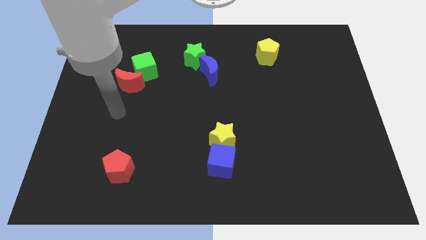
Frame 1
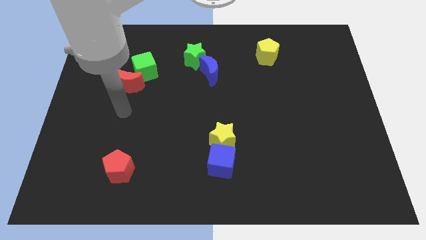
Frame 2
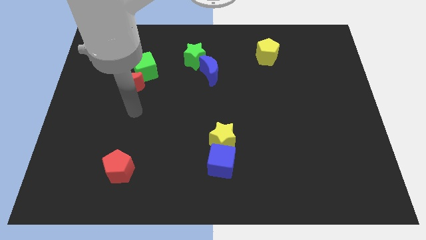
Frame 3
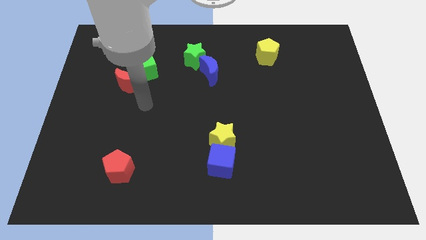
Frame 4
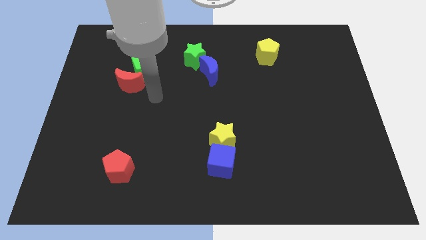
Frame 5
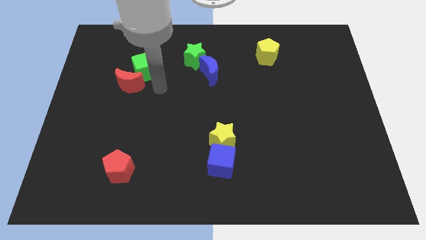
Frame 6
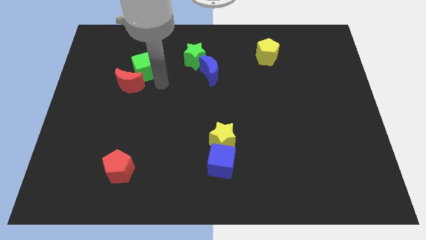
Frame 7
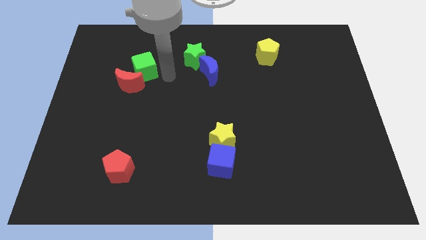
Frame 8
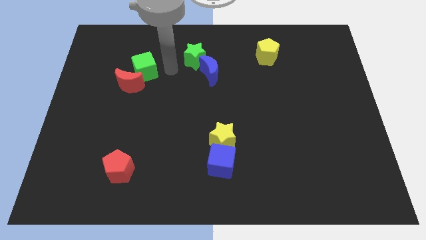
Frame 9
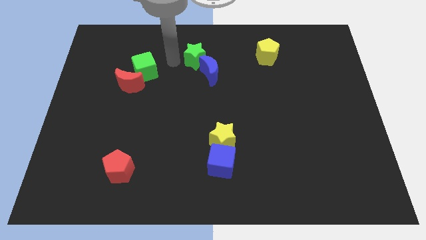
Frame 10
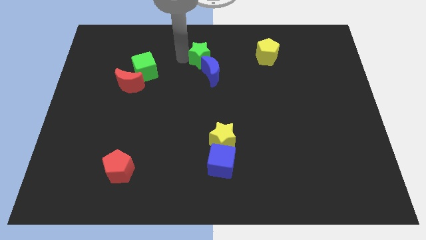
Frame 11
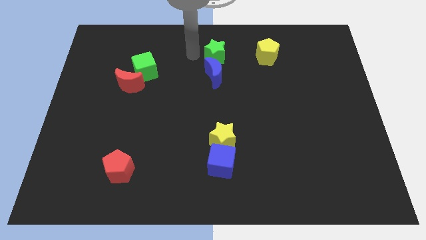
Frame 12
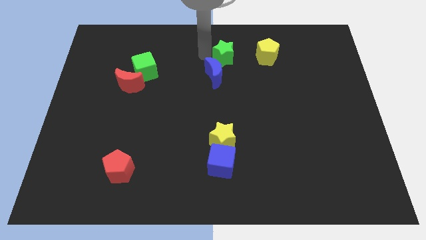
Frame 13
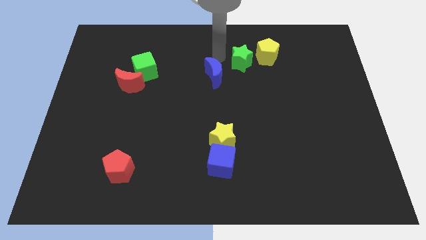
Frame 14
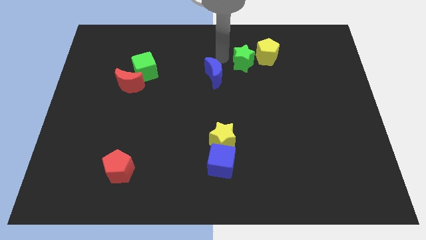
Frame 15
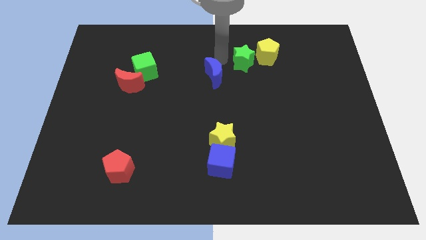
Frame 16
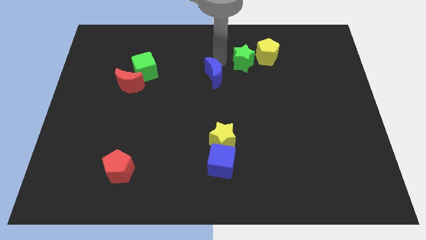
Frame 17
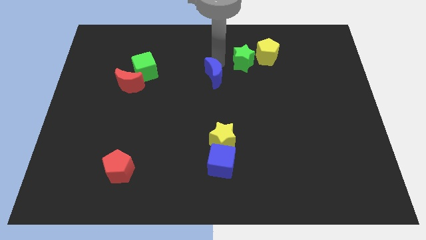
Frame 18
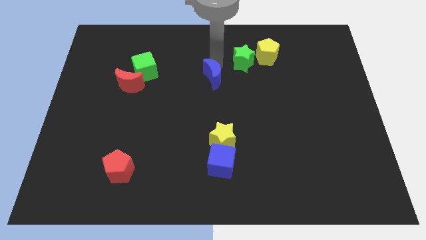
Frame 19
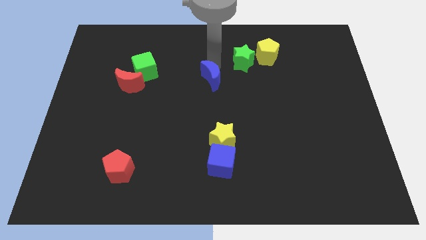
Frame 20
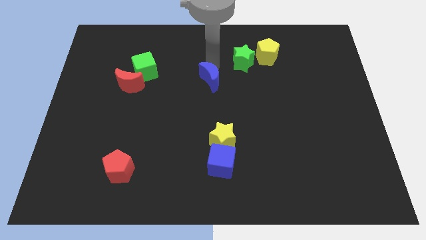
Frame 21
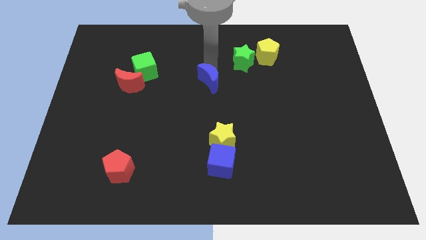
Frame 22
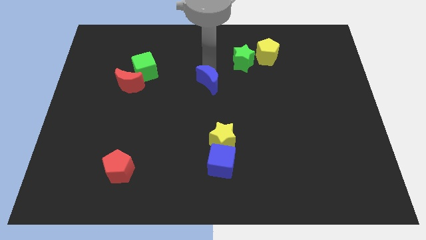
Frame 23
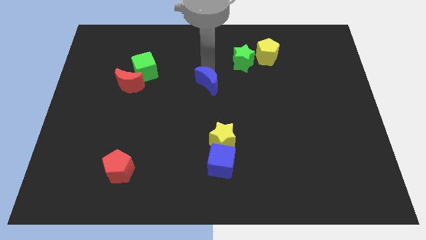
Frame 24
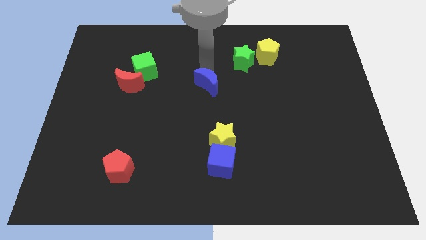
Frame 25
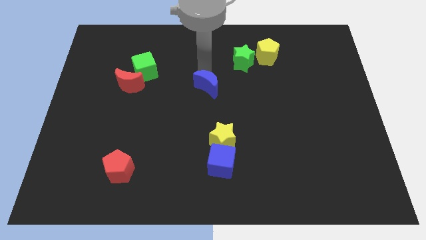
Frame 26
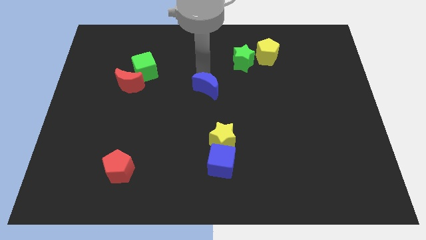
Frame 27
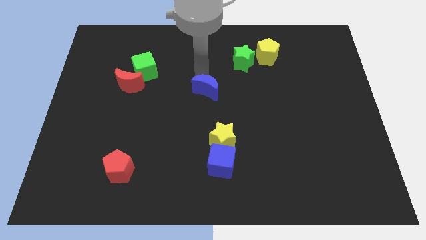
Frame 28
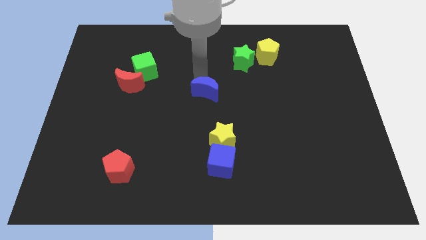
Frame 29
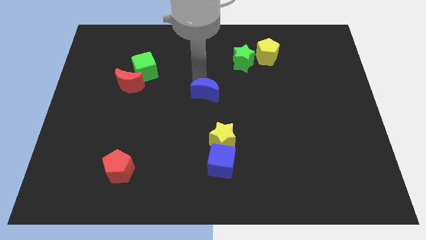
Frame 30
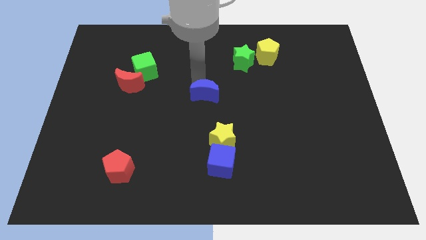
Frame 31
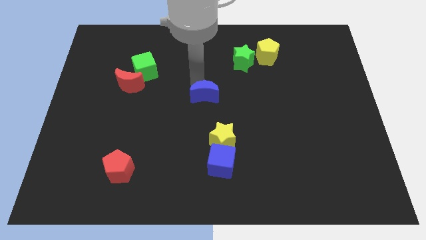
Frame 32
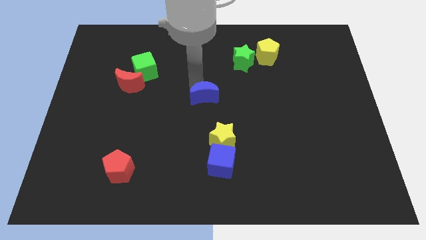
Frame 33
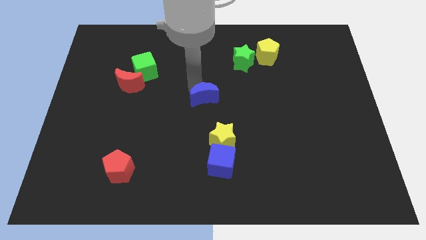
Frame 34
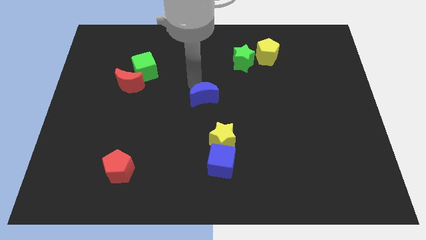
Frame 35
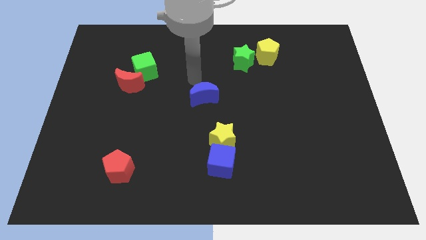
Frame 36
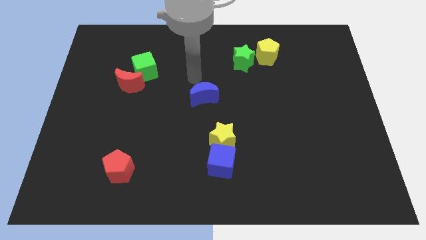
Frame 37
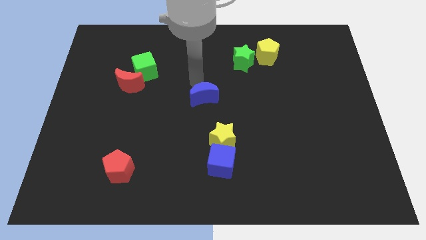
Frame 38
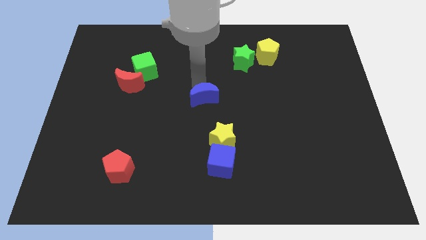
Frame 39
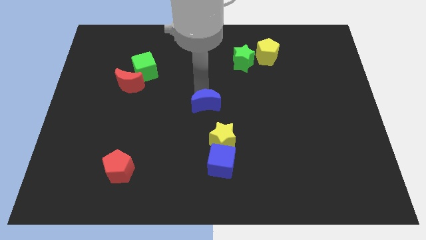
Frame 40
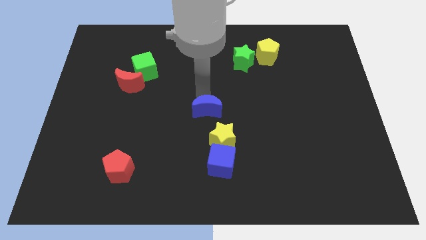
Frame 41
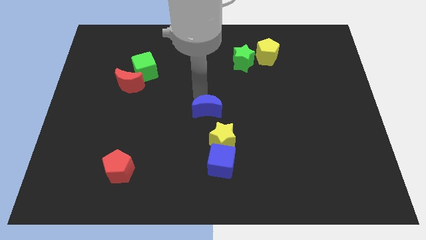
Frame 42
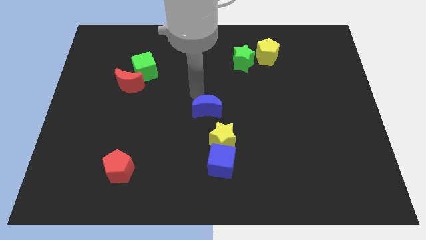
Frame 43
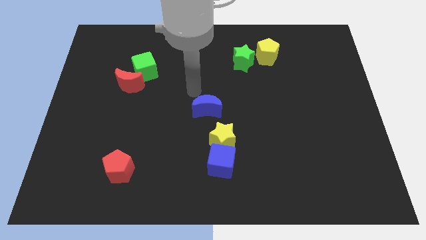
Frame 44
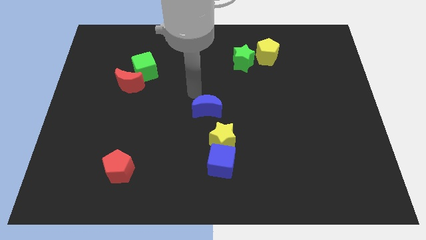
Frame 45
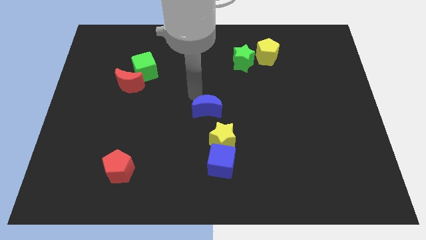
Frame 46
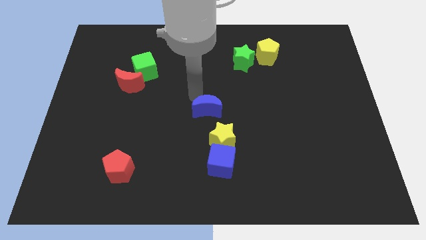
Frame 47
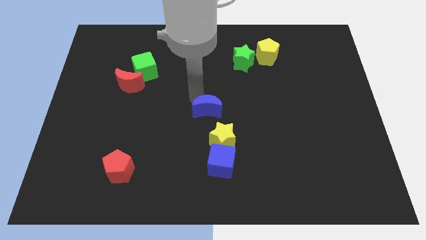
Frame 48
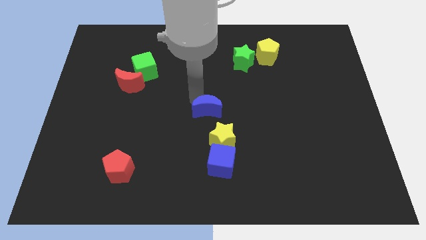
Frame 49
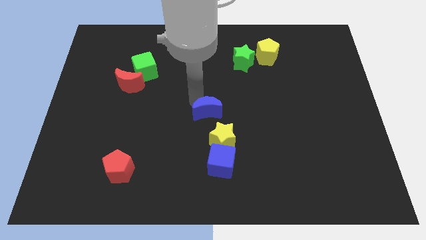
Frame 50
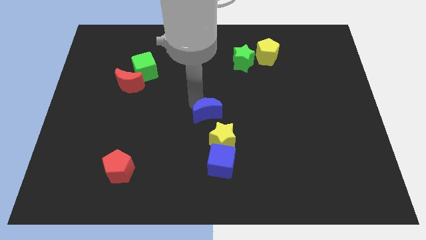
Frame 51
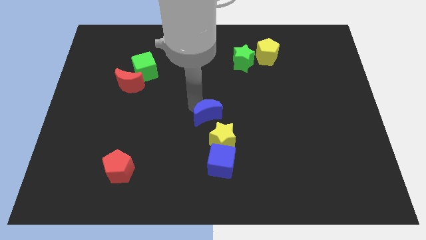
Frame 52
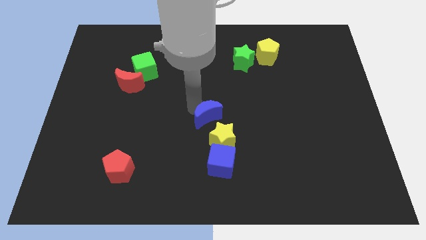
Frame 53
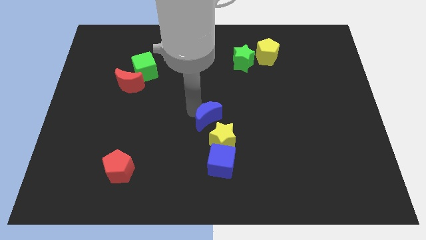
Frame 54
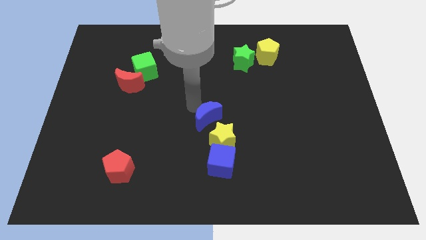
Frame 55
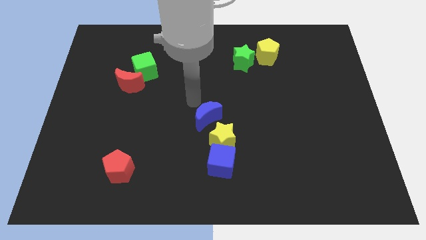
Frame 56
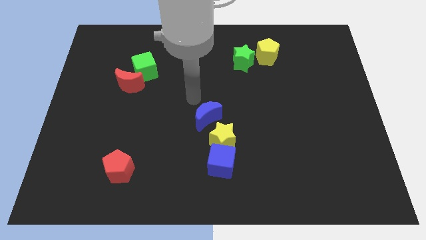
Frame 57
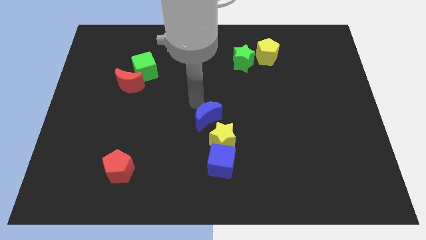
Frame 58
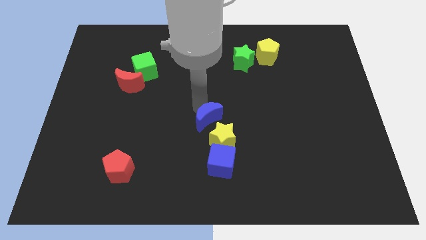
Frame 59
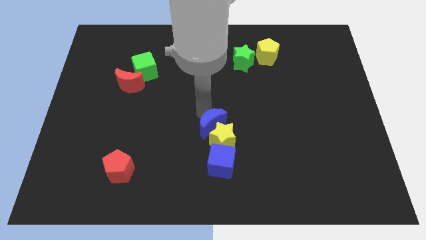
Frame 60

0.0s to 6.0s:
move the blue moon close to the yellow star
